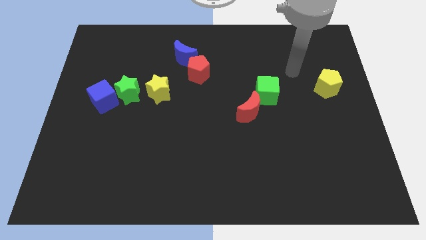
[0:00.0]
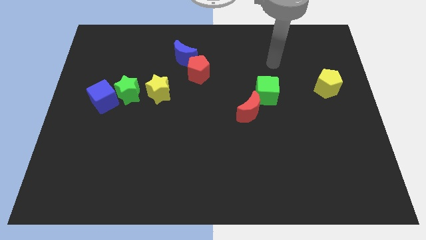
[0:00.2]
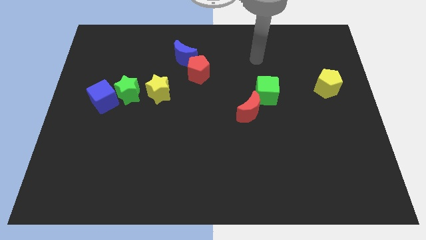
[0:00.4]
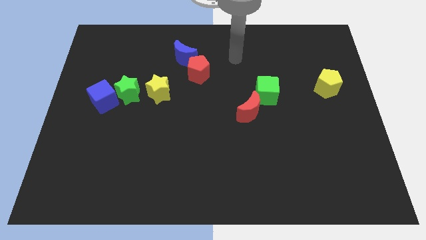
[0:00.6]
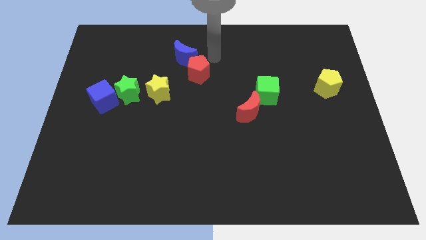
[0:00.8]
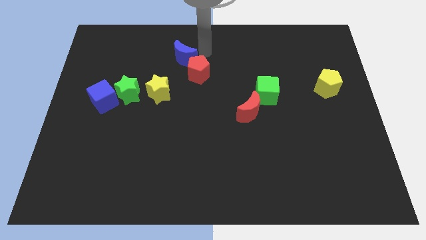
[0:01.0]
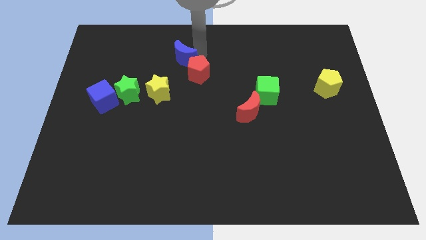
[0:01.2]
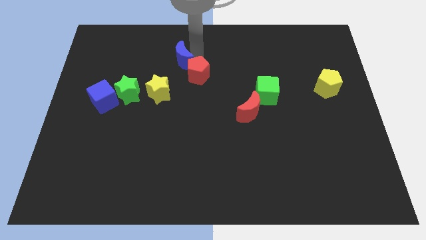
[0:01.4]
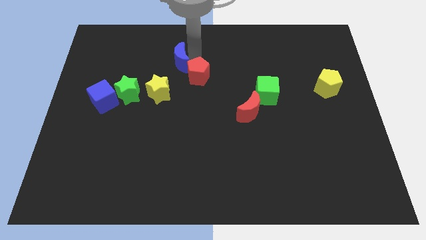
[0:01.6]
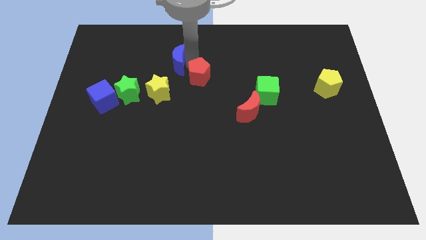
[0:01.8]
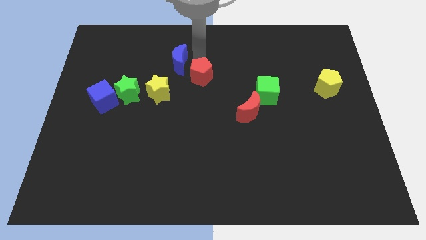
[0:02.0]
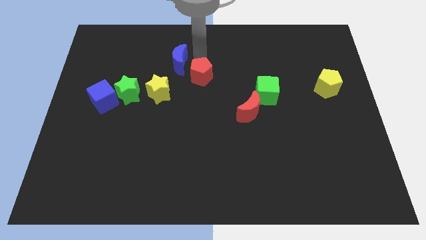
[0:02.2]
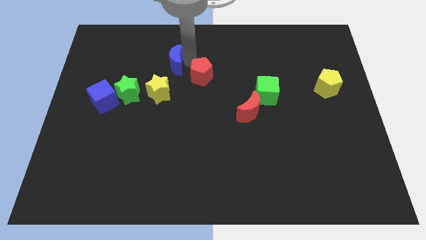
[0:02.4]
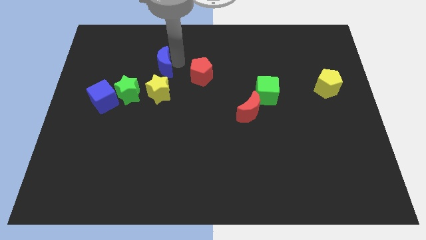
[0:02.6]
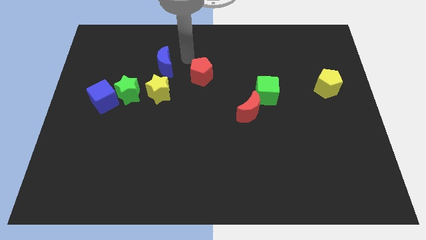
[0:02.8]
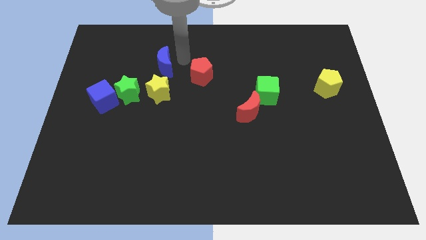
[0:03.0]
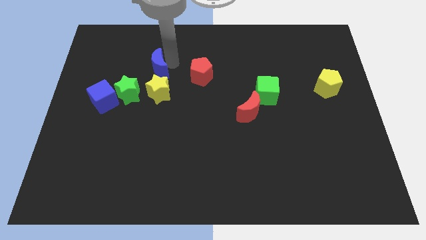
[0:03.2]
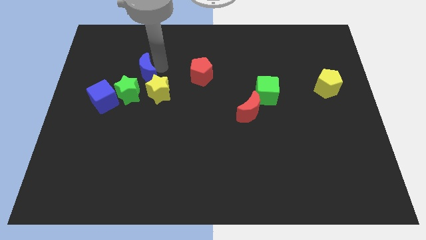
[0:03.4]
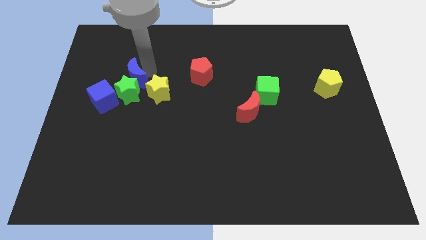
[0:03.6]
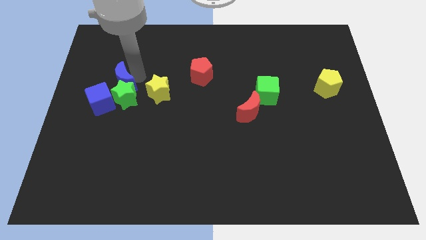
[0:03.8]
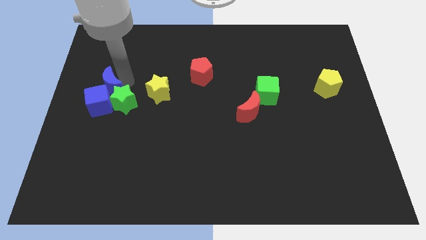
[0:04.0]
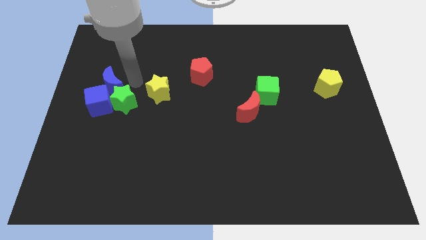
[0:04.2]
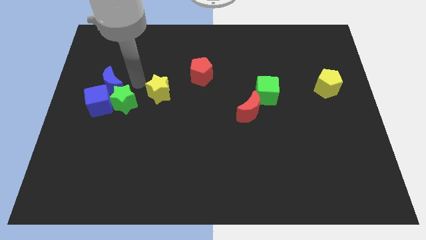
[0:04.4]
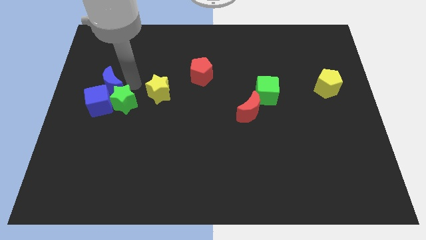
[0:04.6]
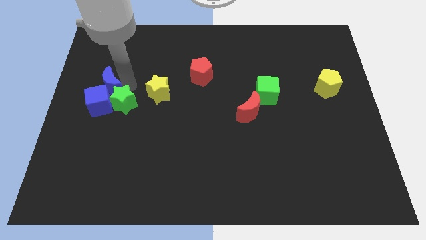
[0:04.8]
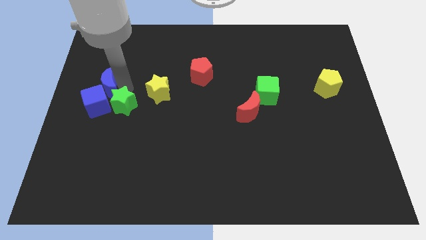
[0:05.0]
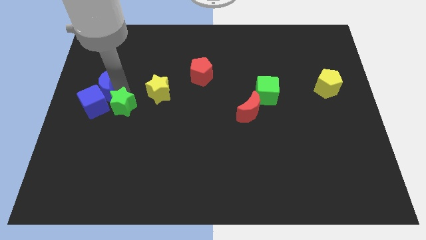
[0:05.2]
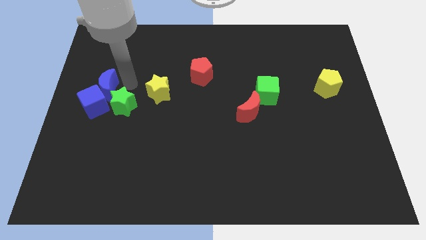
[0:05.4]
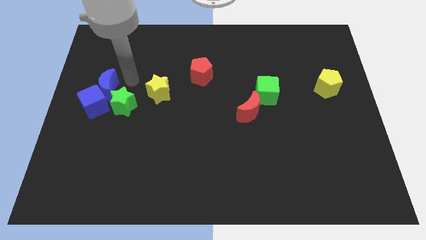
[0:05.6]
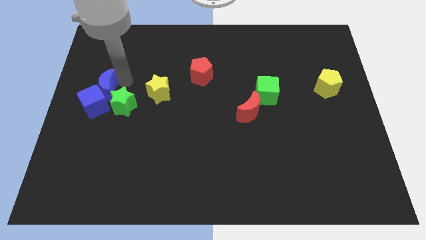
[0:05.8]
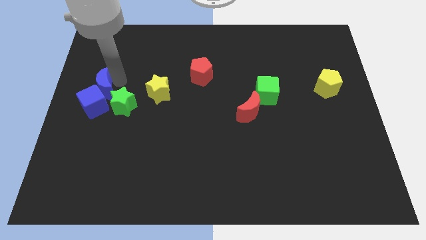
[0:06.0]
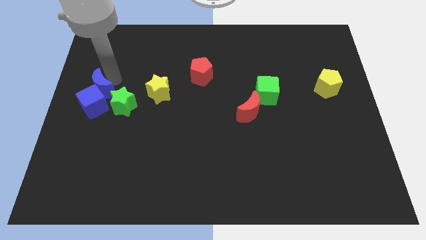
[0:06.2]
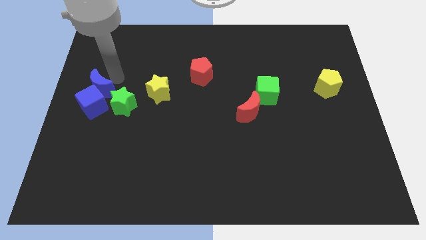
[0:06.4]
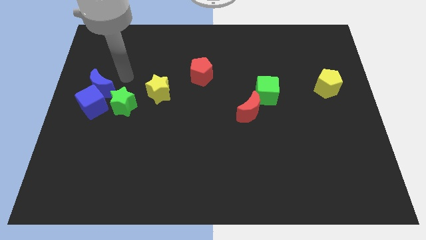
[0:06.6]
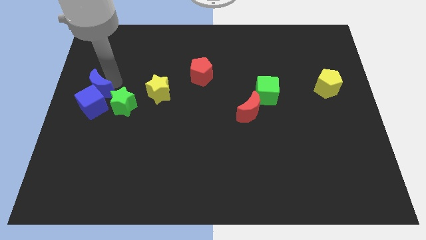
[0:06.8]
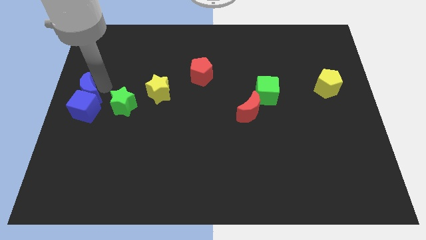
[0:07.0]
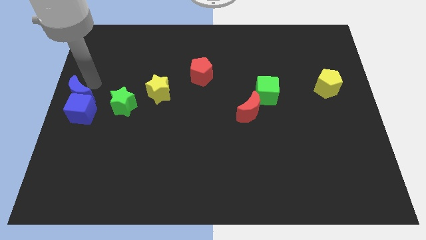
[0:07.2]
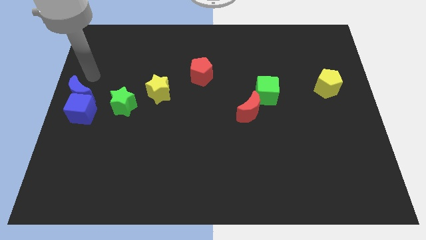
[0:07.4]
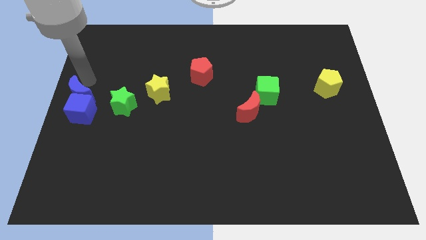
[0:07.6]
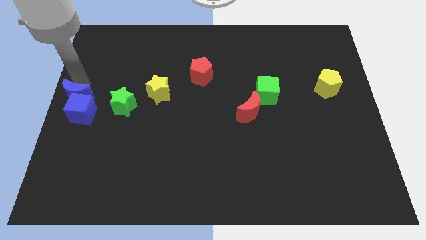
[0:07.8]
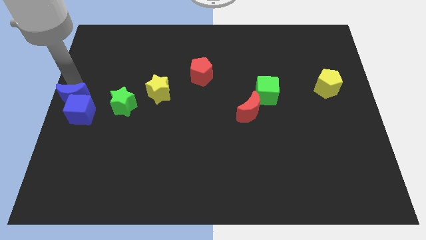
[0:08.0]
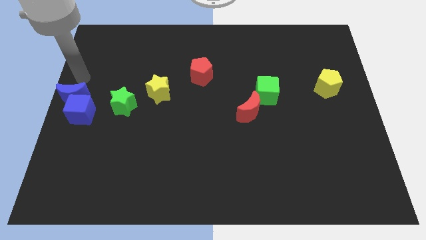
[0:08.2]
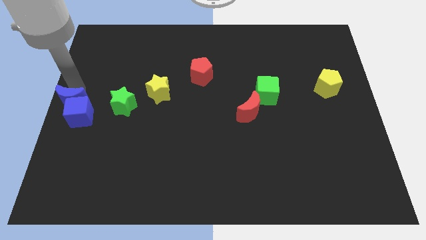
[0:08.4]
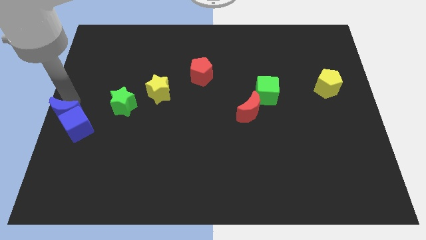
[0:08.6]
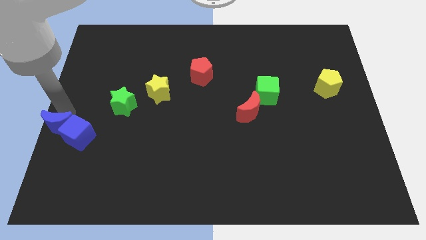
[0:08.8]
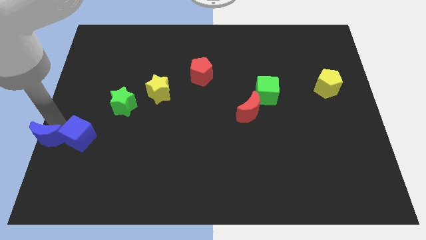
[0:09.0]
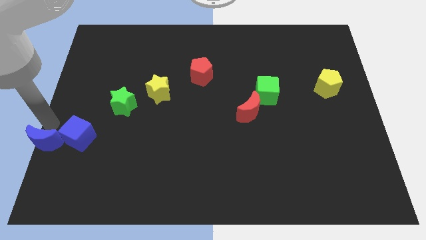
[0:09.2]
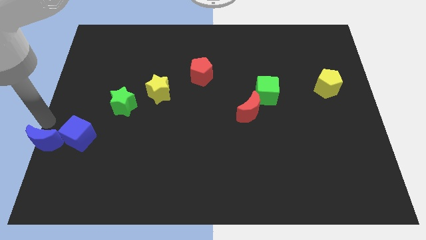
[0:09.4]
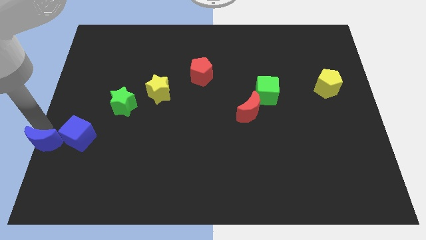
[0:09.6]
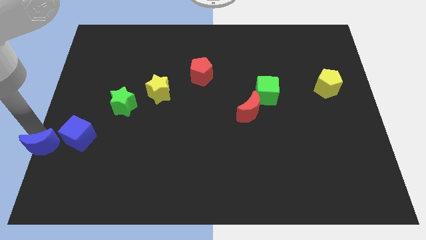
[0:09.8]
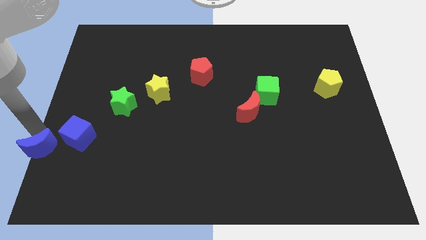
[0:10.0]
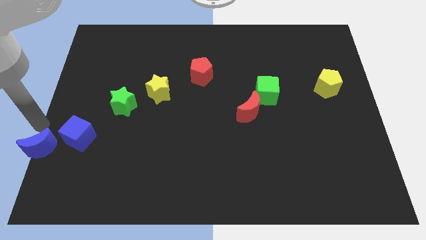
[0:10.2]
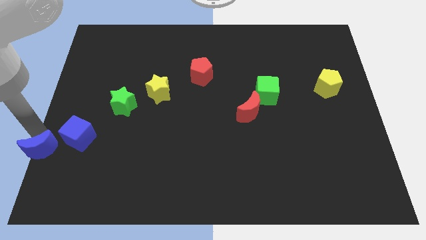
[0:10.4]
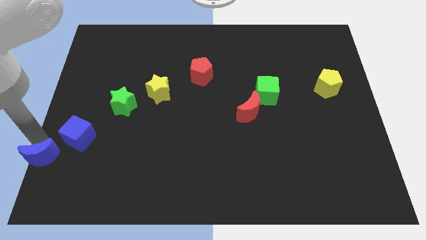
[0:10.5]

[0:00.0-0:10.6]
push the blue moon to the bottom left corner

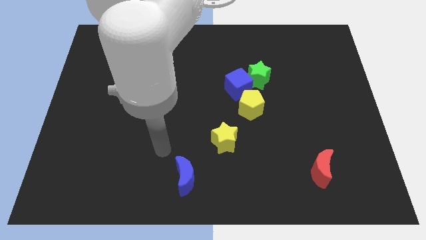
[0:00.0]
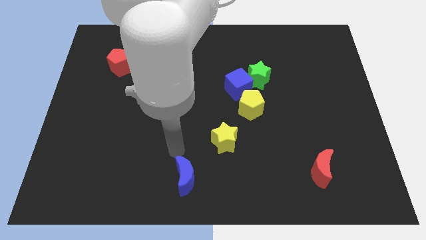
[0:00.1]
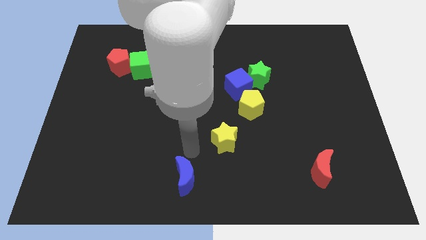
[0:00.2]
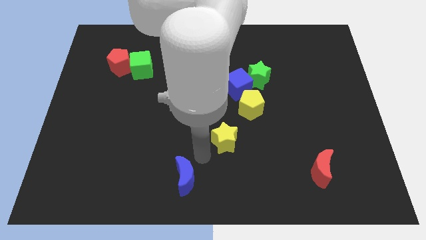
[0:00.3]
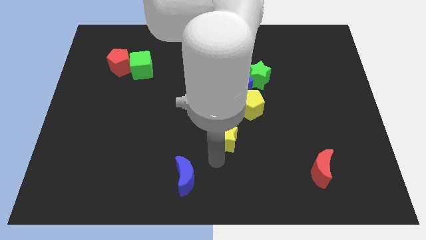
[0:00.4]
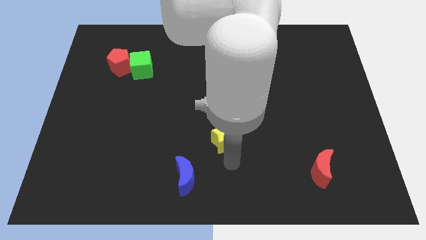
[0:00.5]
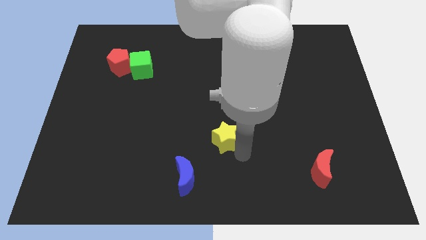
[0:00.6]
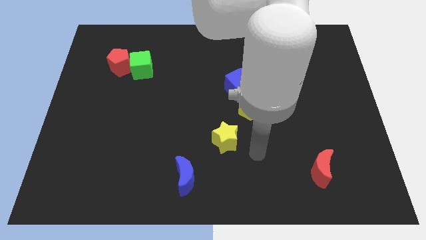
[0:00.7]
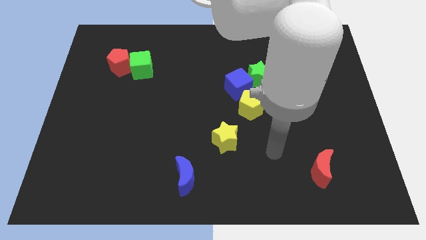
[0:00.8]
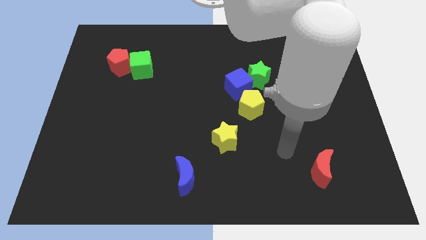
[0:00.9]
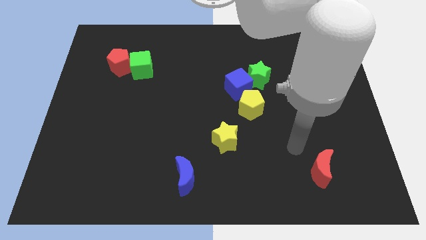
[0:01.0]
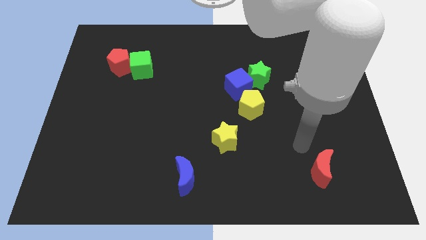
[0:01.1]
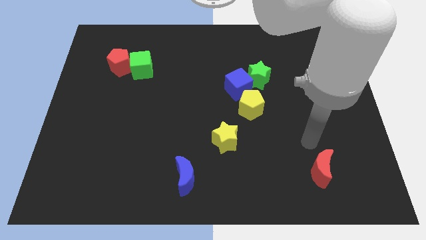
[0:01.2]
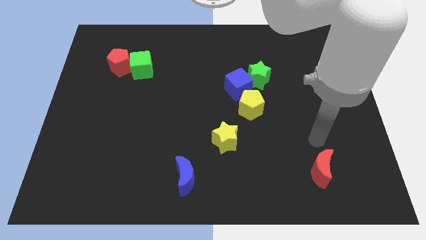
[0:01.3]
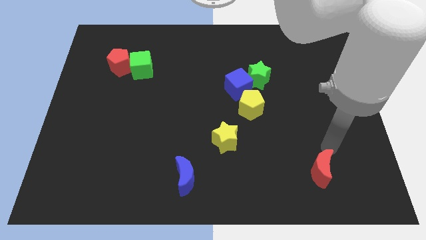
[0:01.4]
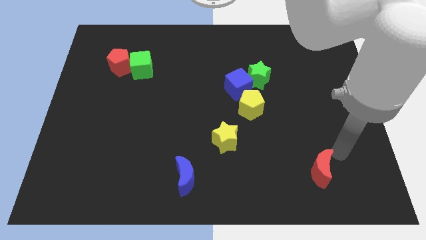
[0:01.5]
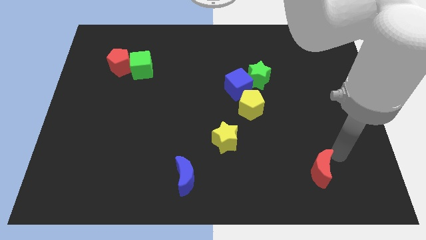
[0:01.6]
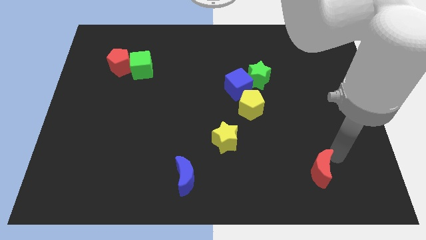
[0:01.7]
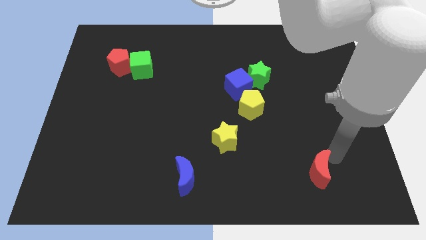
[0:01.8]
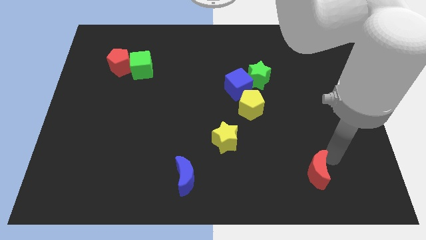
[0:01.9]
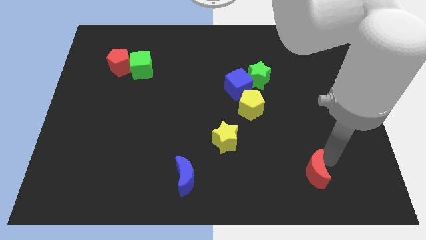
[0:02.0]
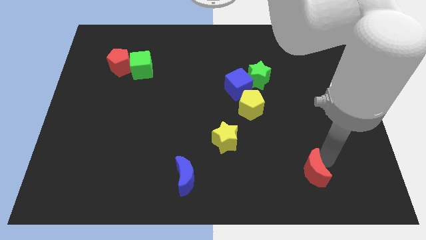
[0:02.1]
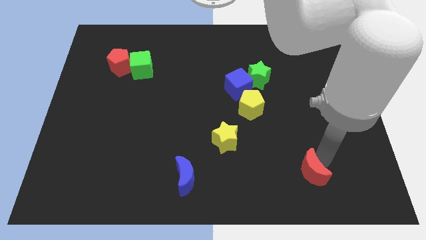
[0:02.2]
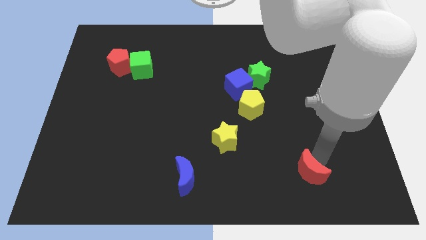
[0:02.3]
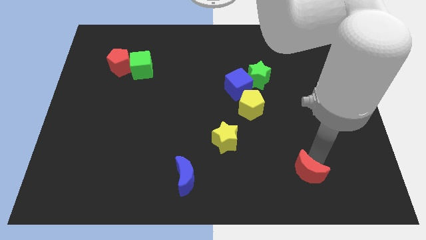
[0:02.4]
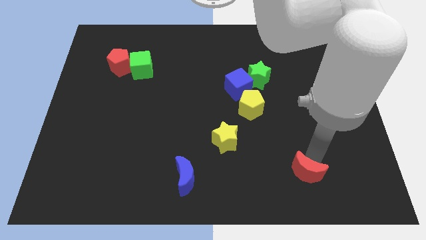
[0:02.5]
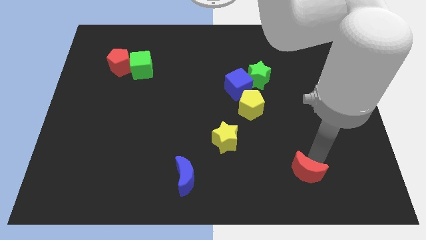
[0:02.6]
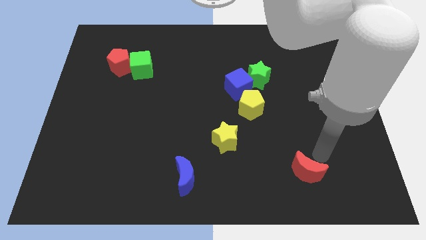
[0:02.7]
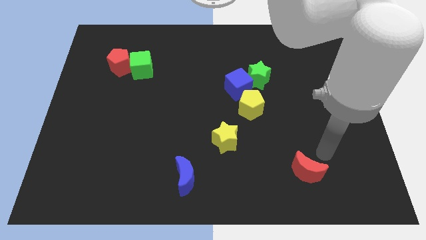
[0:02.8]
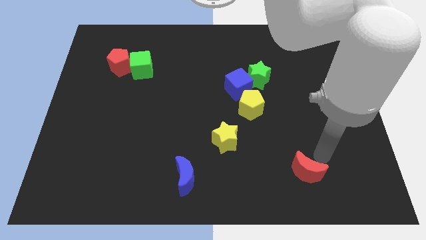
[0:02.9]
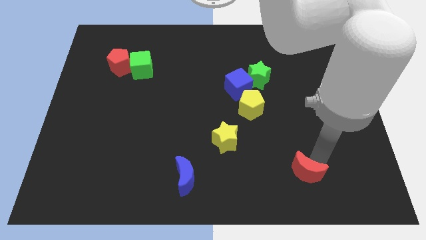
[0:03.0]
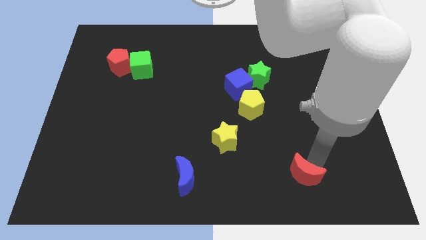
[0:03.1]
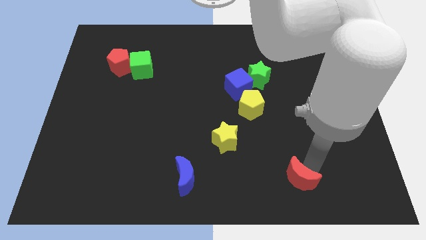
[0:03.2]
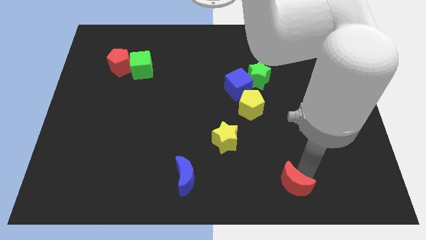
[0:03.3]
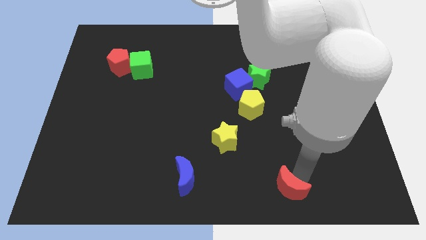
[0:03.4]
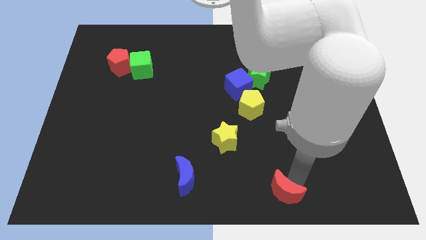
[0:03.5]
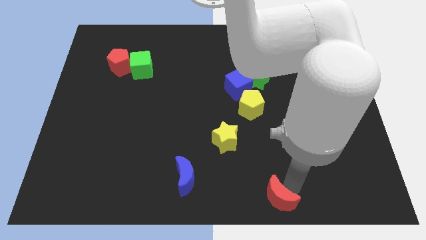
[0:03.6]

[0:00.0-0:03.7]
put the red moon to the bottom side
